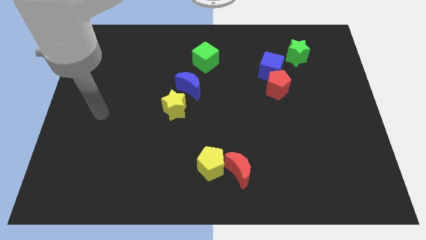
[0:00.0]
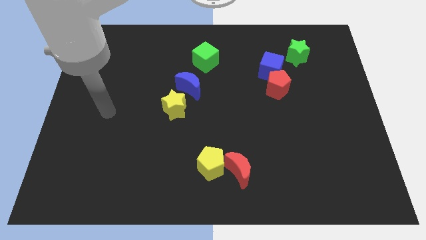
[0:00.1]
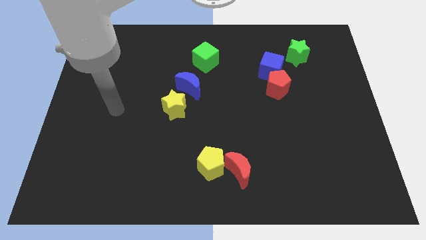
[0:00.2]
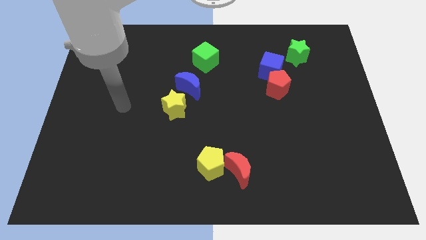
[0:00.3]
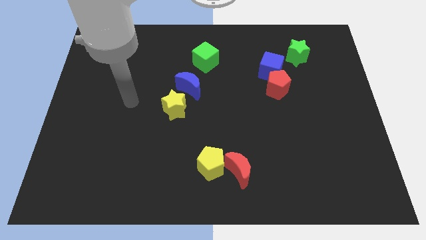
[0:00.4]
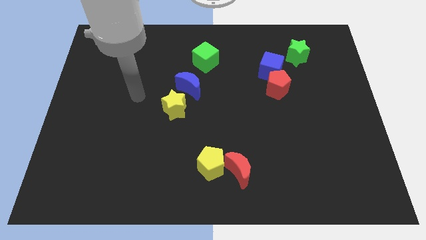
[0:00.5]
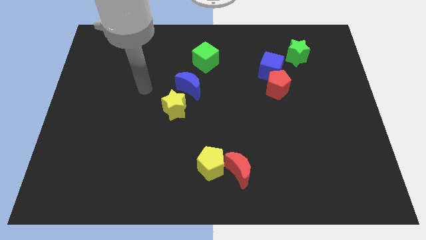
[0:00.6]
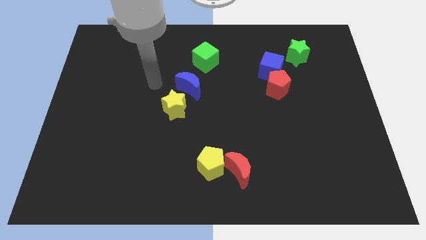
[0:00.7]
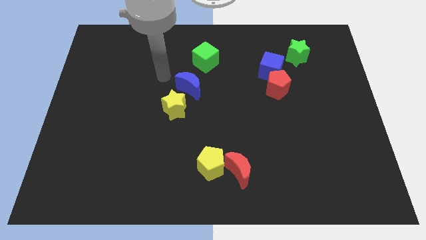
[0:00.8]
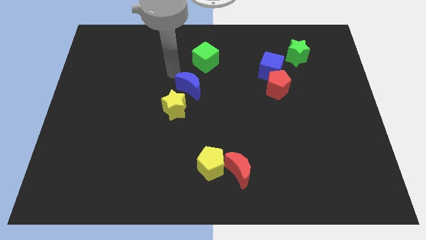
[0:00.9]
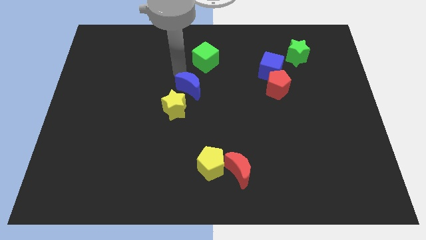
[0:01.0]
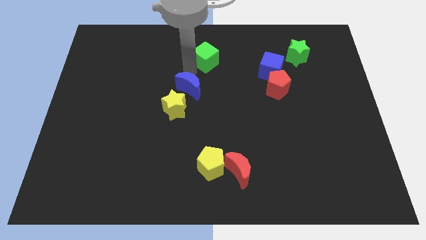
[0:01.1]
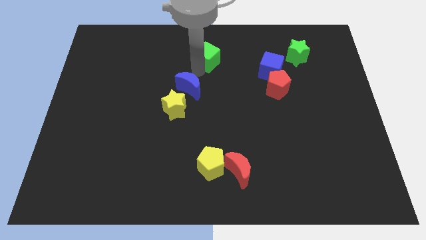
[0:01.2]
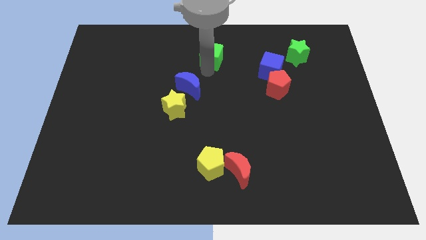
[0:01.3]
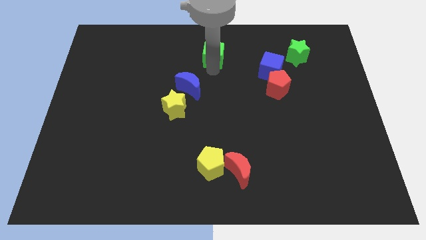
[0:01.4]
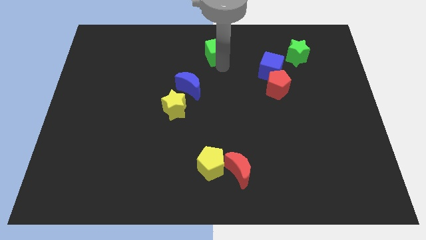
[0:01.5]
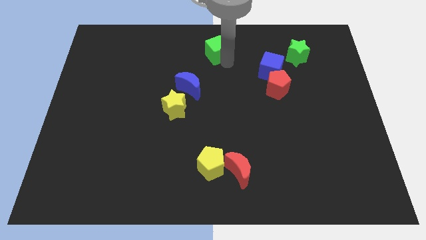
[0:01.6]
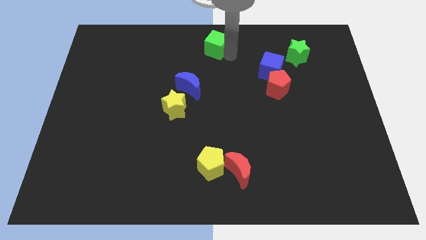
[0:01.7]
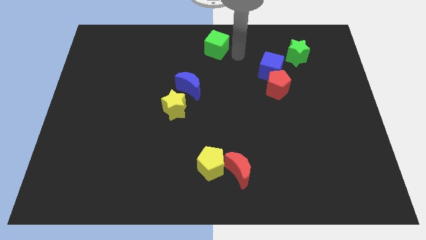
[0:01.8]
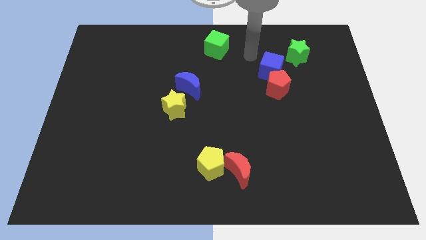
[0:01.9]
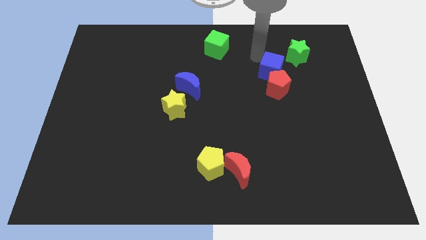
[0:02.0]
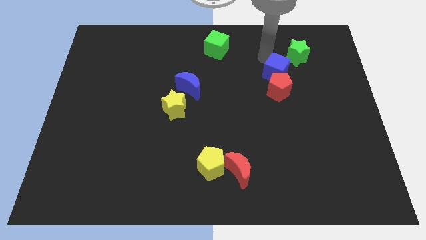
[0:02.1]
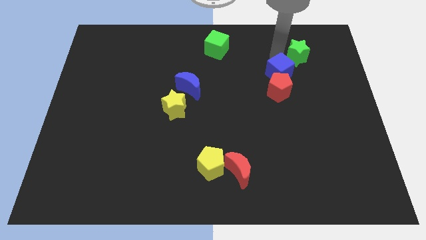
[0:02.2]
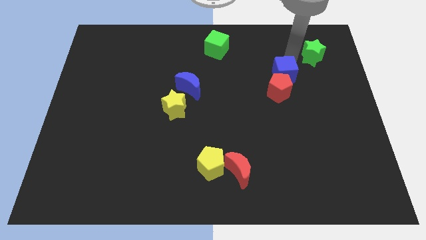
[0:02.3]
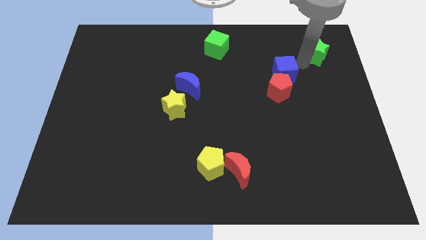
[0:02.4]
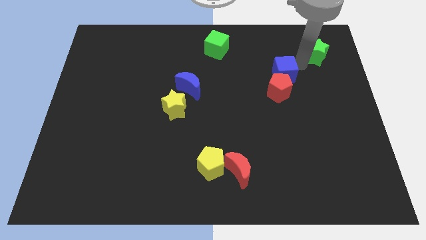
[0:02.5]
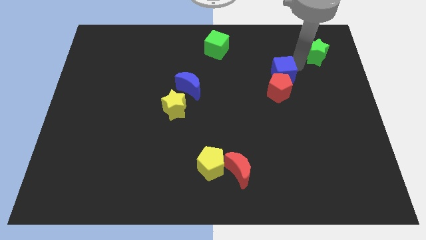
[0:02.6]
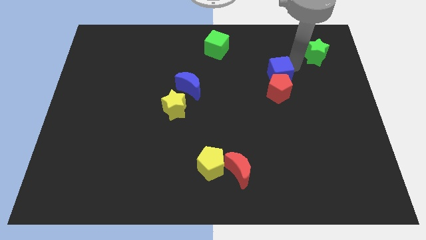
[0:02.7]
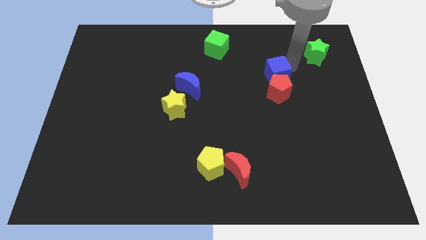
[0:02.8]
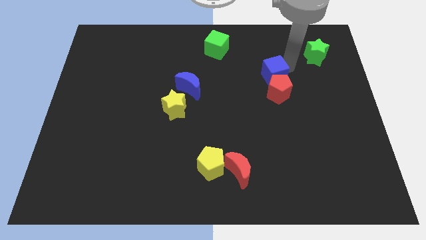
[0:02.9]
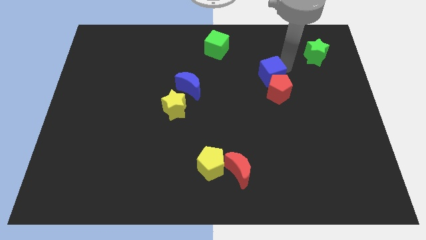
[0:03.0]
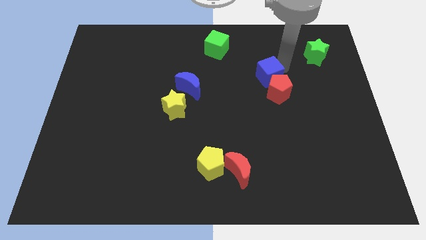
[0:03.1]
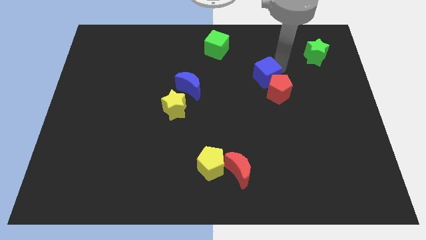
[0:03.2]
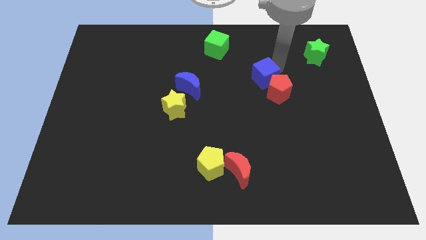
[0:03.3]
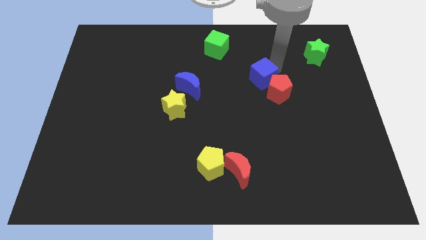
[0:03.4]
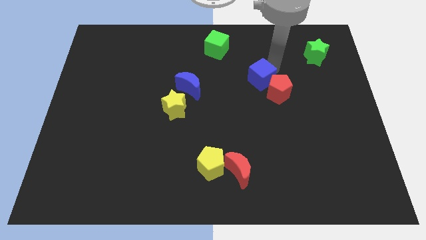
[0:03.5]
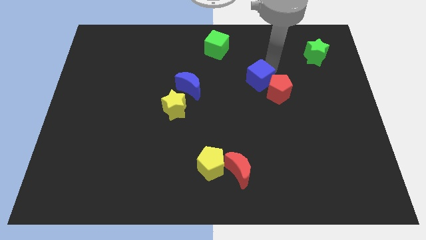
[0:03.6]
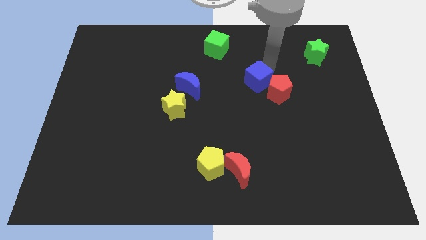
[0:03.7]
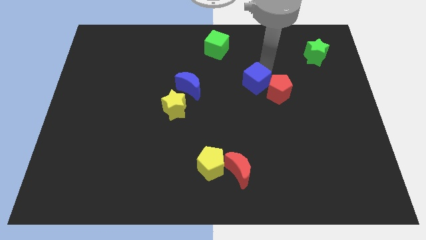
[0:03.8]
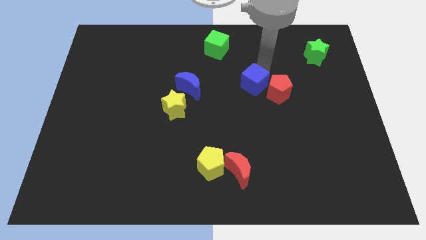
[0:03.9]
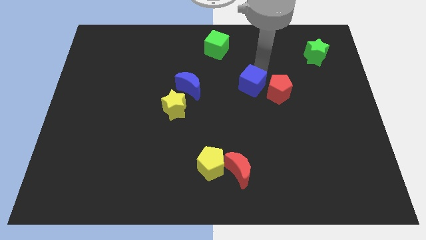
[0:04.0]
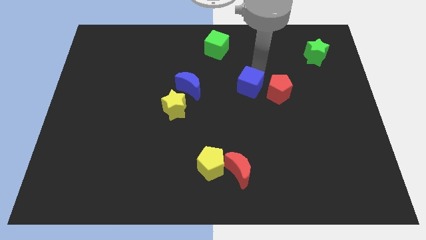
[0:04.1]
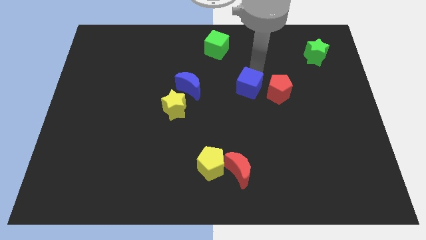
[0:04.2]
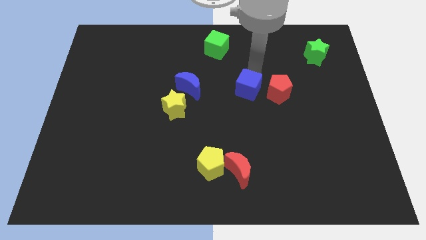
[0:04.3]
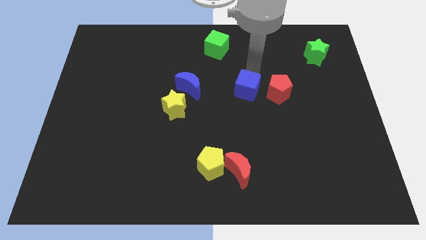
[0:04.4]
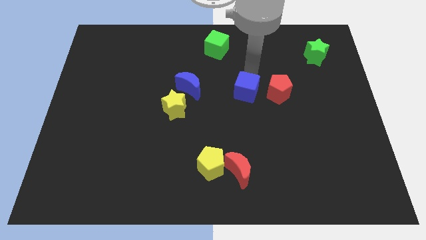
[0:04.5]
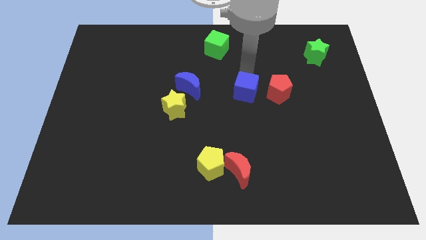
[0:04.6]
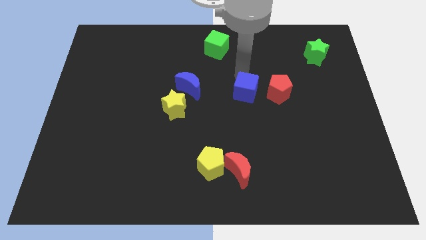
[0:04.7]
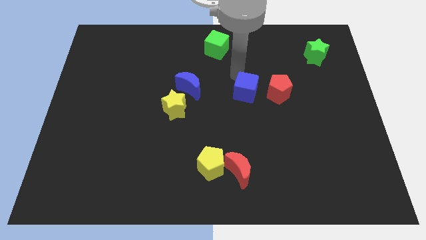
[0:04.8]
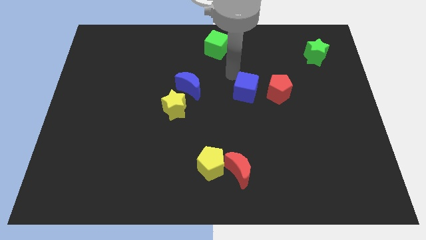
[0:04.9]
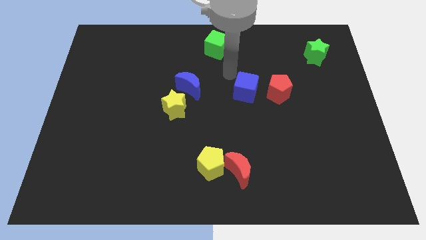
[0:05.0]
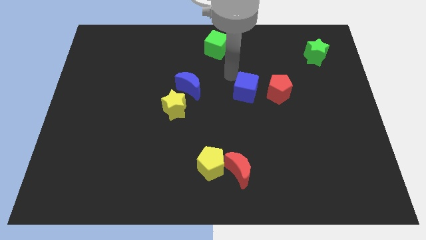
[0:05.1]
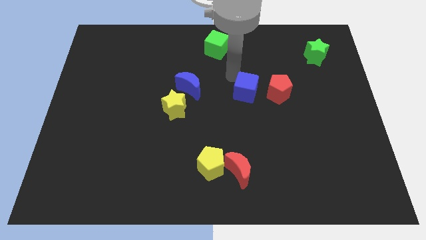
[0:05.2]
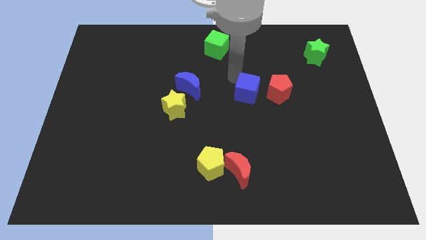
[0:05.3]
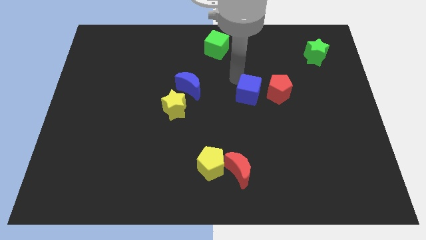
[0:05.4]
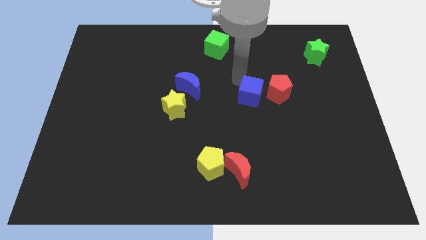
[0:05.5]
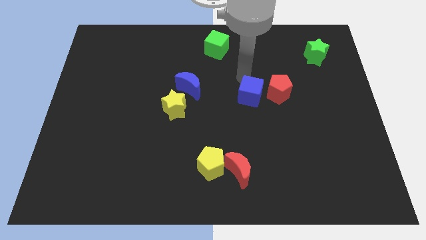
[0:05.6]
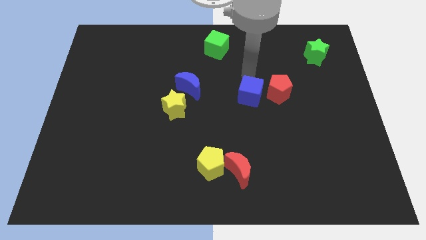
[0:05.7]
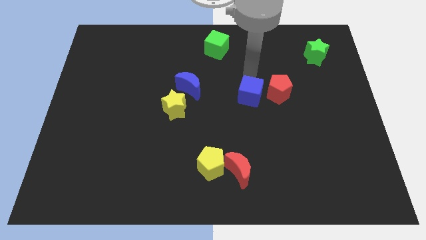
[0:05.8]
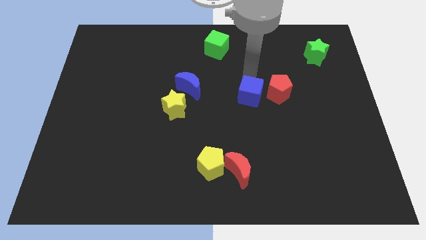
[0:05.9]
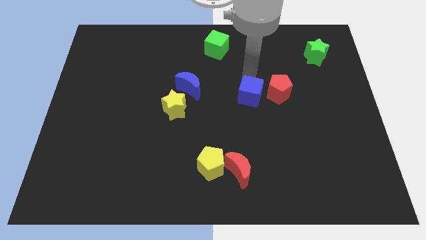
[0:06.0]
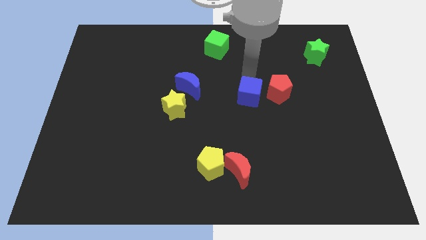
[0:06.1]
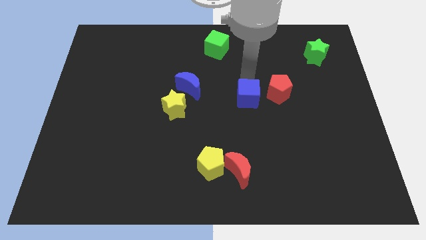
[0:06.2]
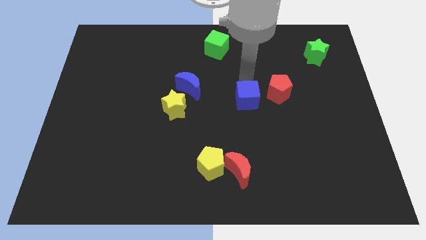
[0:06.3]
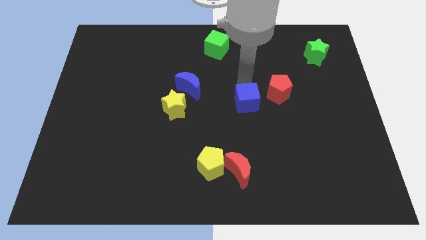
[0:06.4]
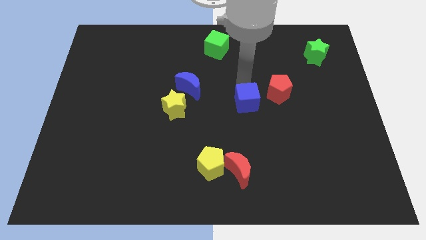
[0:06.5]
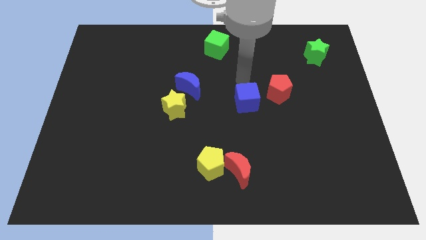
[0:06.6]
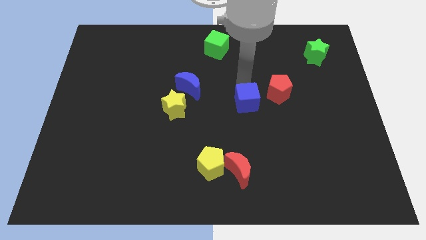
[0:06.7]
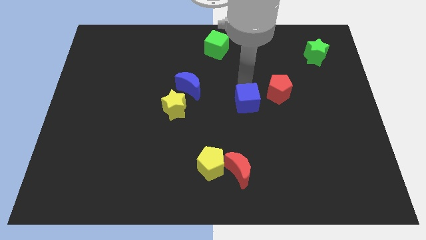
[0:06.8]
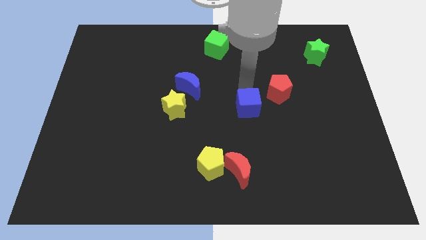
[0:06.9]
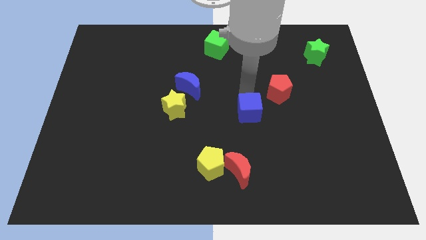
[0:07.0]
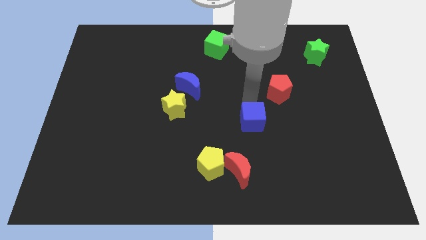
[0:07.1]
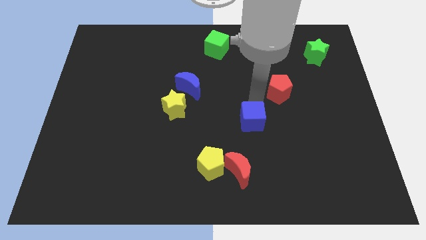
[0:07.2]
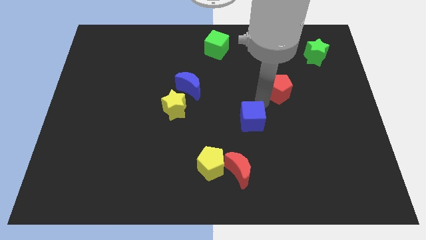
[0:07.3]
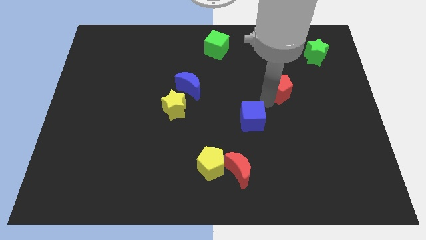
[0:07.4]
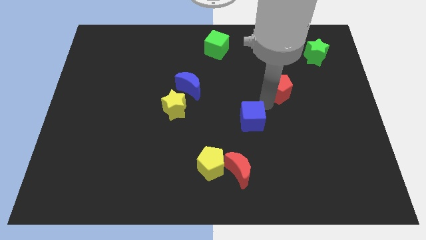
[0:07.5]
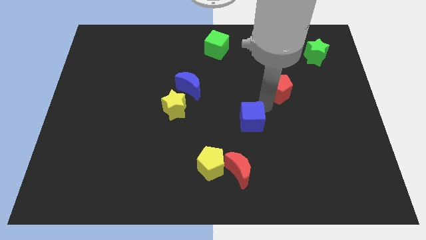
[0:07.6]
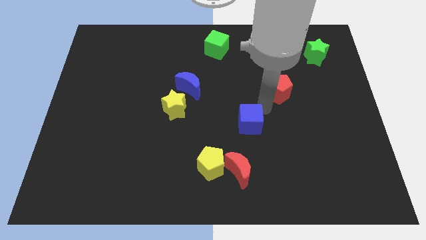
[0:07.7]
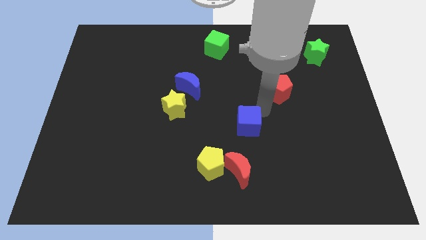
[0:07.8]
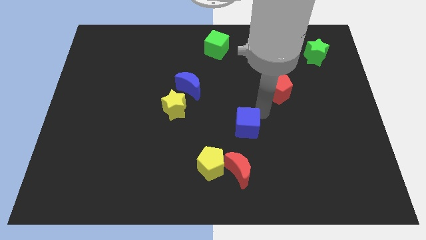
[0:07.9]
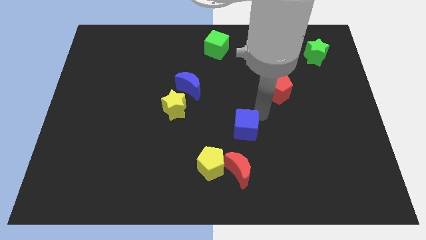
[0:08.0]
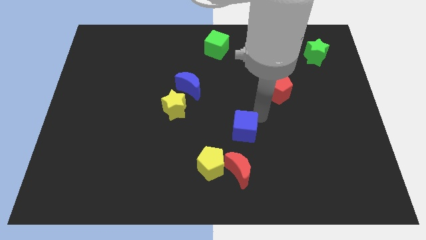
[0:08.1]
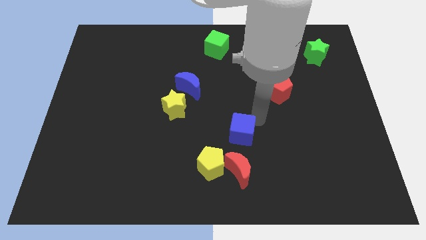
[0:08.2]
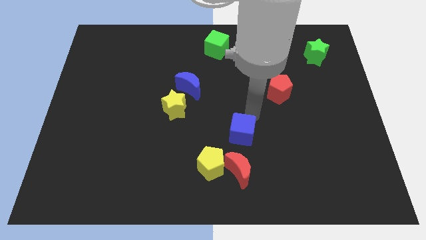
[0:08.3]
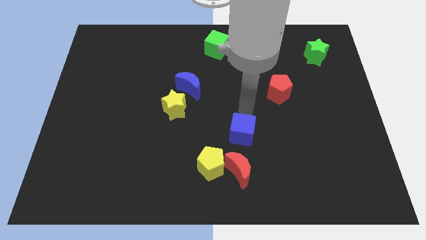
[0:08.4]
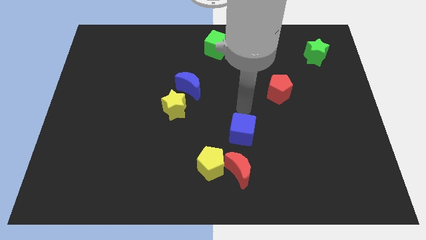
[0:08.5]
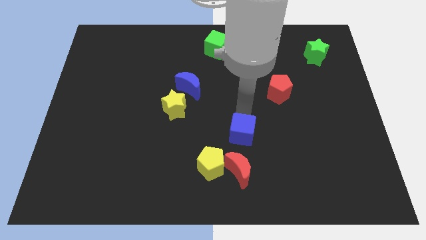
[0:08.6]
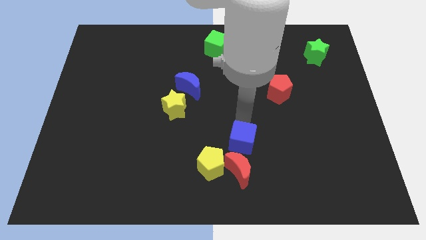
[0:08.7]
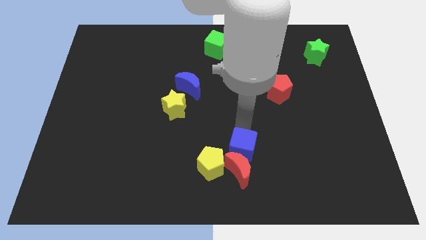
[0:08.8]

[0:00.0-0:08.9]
move the blue cube close to the red moon
